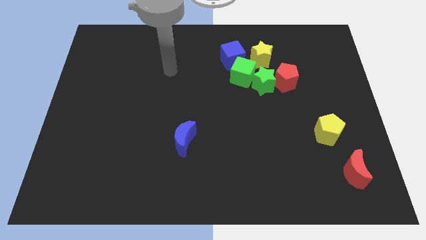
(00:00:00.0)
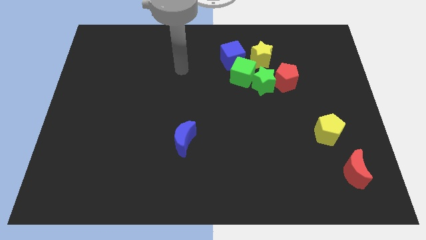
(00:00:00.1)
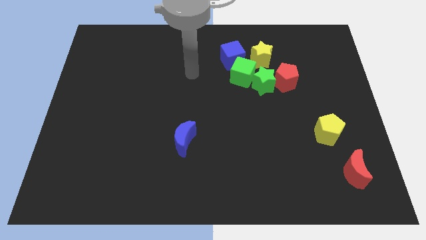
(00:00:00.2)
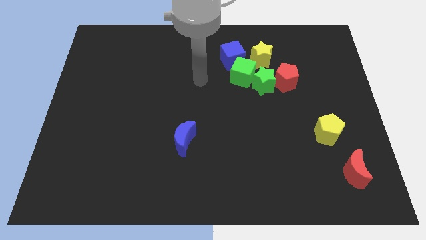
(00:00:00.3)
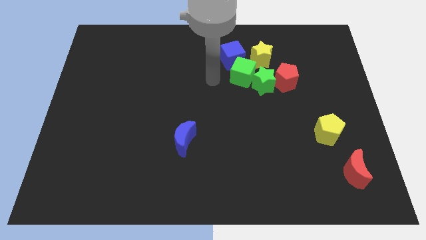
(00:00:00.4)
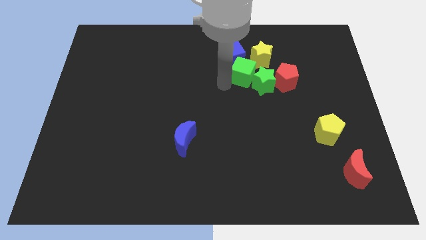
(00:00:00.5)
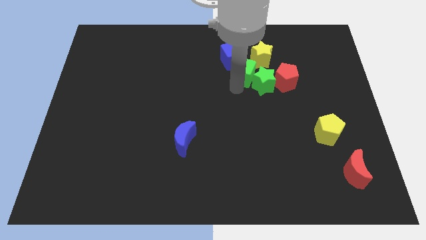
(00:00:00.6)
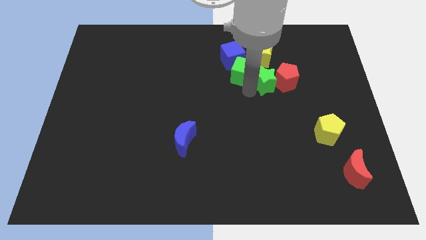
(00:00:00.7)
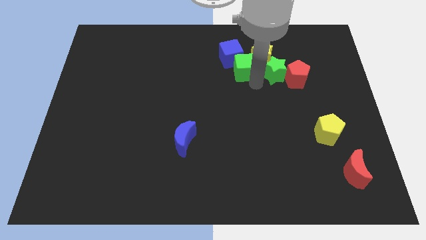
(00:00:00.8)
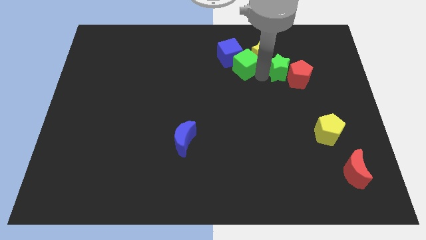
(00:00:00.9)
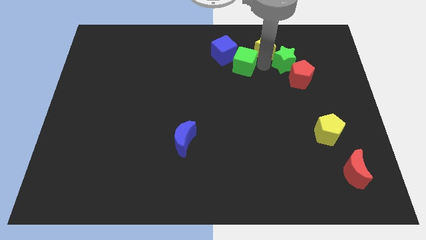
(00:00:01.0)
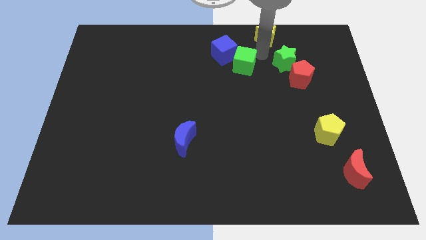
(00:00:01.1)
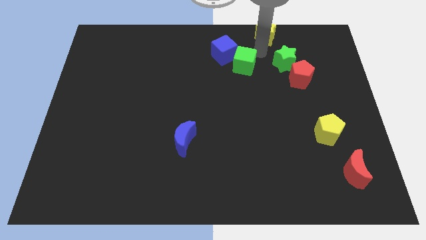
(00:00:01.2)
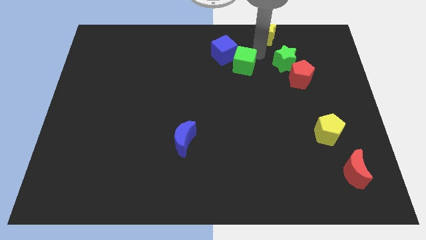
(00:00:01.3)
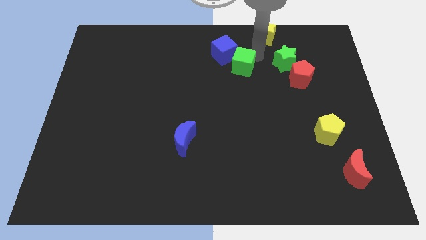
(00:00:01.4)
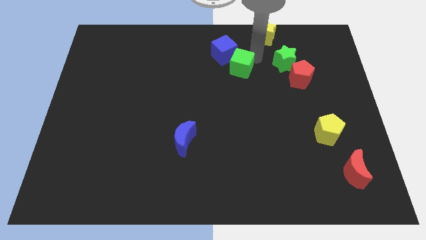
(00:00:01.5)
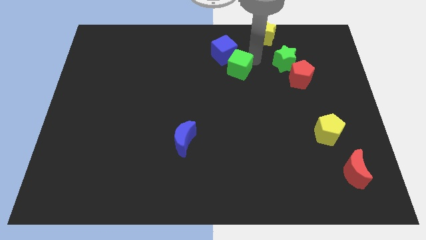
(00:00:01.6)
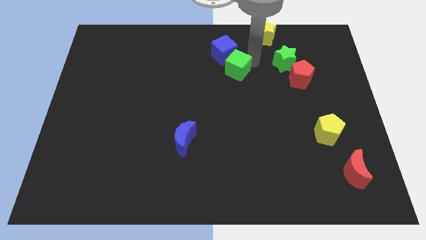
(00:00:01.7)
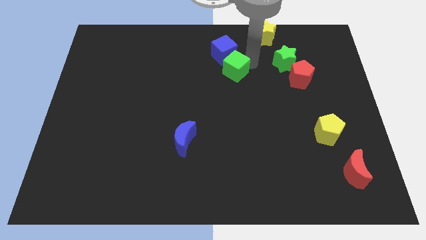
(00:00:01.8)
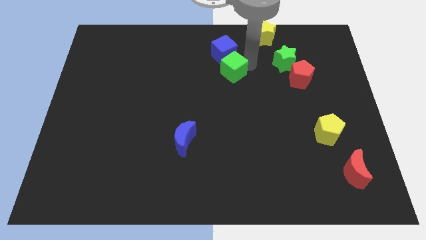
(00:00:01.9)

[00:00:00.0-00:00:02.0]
separate the green cube from the green star, blue cube, and yellow star

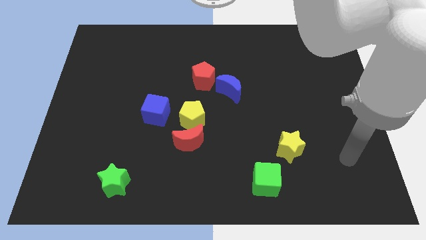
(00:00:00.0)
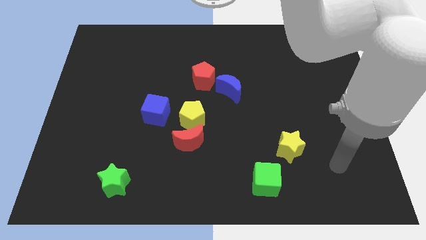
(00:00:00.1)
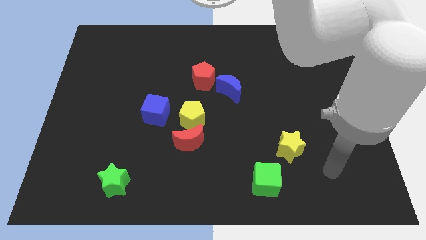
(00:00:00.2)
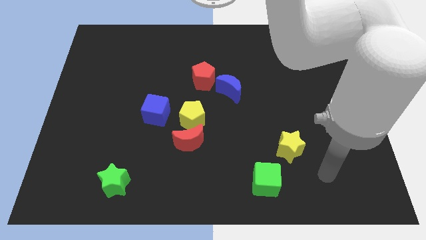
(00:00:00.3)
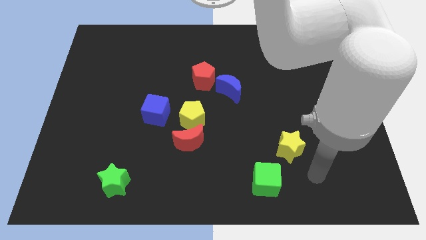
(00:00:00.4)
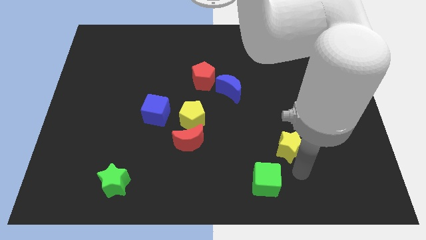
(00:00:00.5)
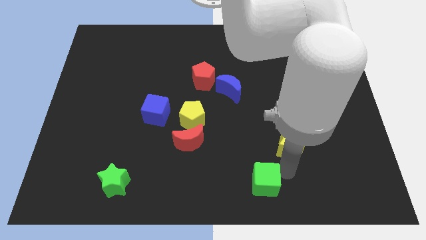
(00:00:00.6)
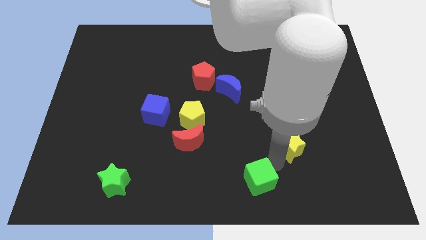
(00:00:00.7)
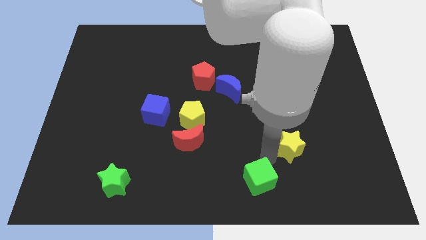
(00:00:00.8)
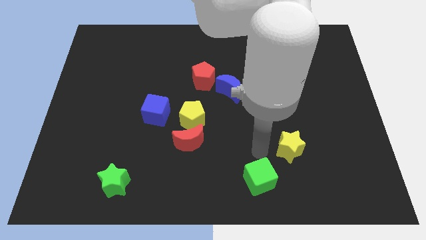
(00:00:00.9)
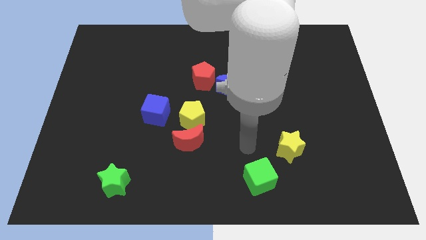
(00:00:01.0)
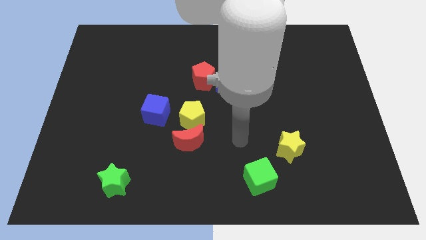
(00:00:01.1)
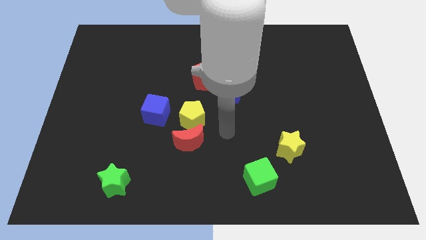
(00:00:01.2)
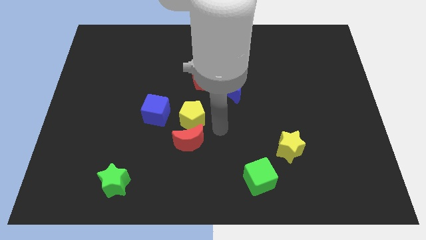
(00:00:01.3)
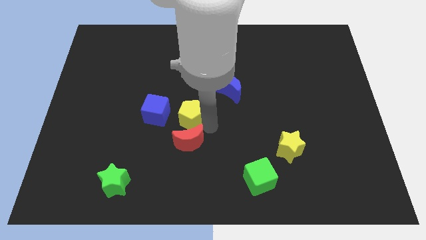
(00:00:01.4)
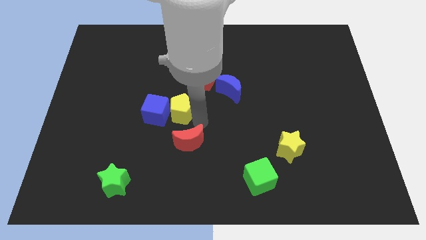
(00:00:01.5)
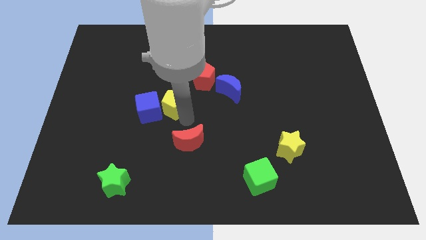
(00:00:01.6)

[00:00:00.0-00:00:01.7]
move the red moon away from the yellow pentagon

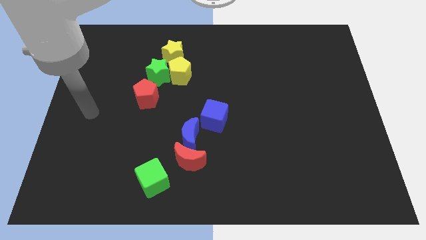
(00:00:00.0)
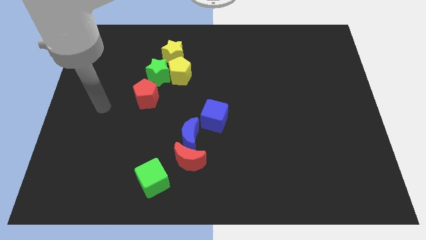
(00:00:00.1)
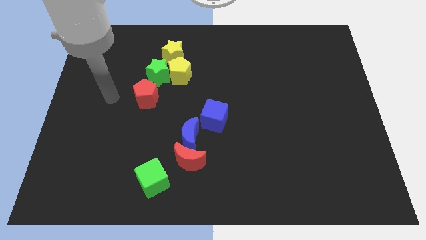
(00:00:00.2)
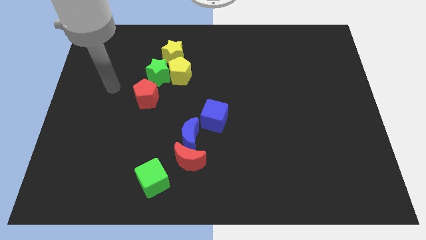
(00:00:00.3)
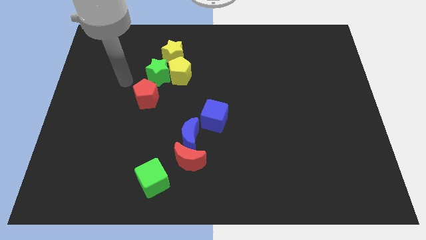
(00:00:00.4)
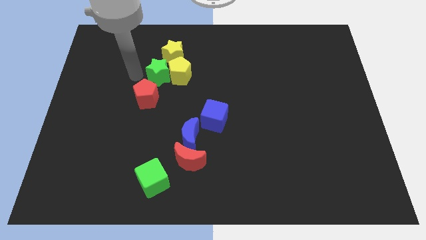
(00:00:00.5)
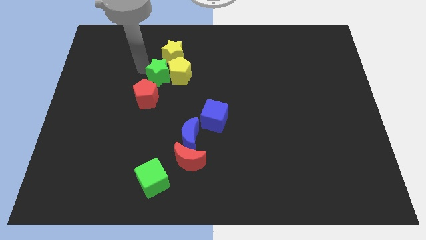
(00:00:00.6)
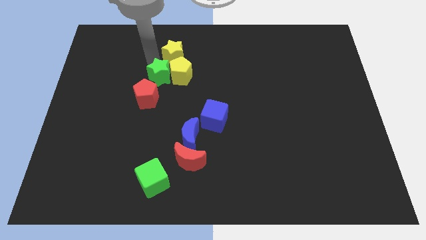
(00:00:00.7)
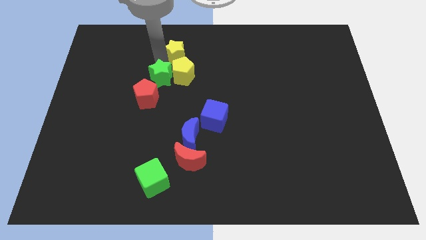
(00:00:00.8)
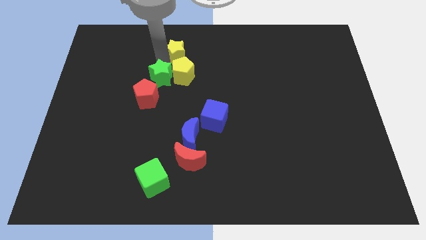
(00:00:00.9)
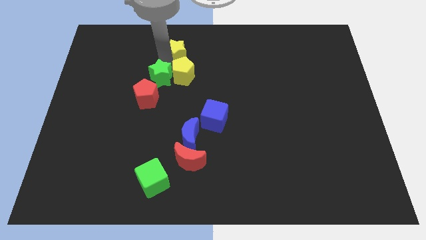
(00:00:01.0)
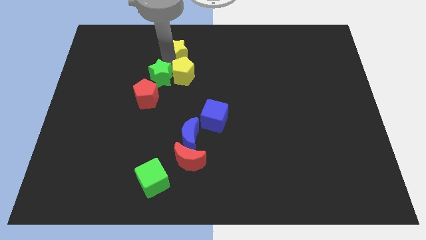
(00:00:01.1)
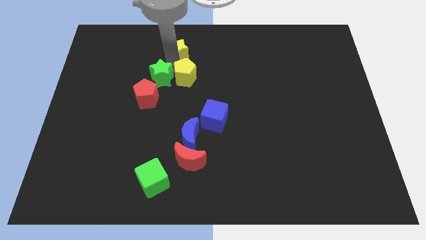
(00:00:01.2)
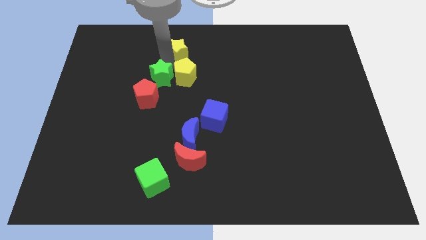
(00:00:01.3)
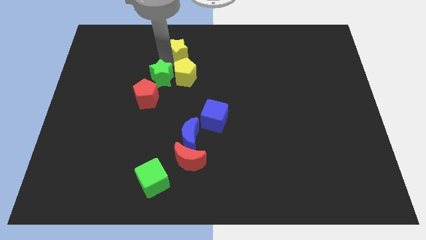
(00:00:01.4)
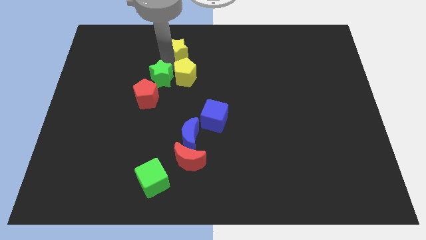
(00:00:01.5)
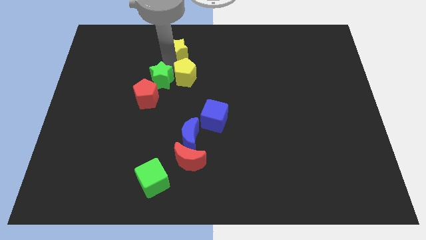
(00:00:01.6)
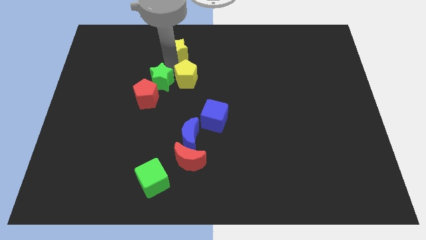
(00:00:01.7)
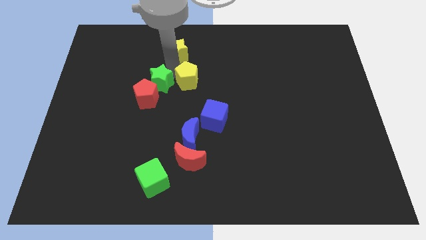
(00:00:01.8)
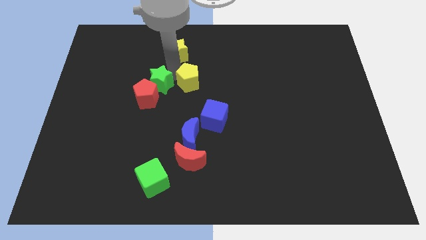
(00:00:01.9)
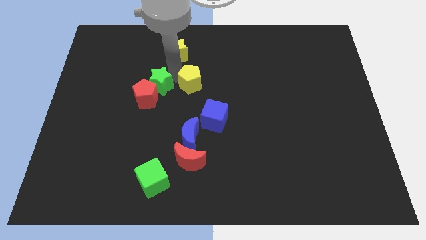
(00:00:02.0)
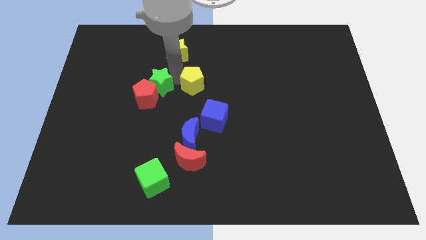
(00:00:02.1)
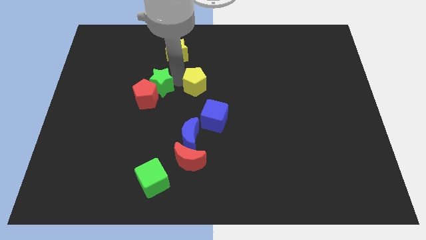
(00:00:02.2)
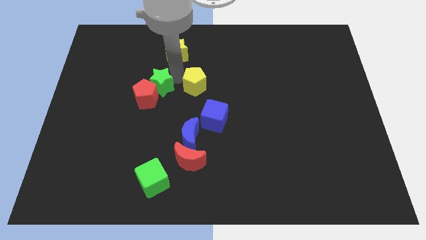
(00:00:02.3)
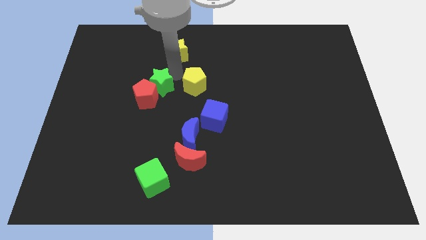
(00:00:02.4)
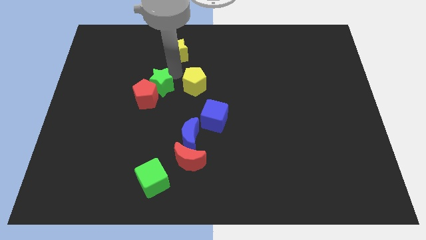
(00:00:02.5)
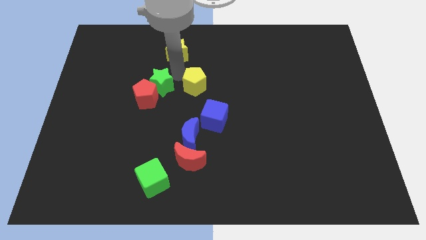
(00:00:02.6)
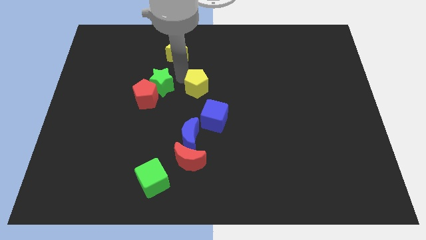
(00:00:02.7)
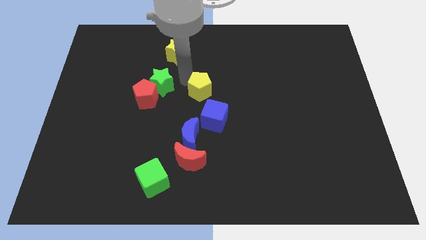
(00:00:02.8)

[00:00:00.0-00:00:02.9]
pull the yellow pentagon apart from the green star and yellow star

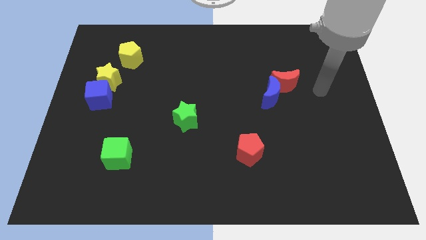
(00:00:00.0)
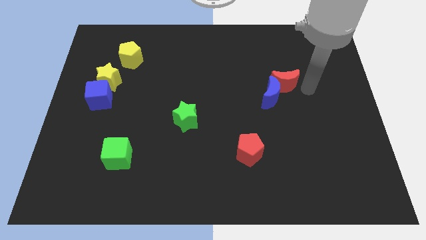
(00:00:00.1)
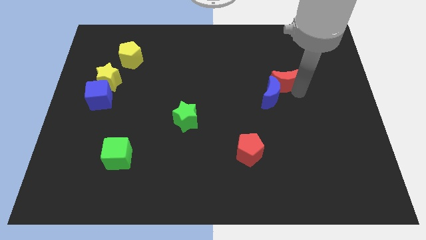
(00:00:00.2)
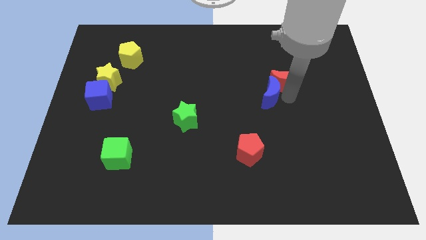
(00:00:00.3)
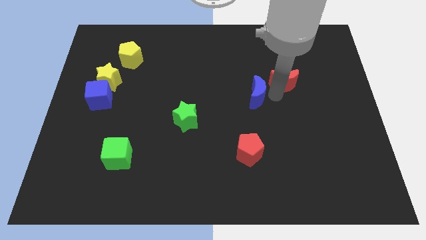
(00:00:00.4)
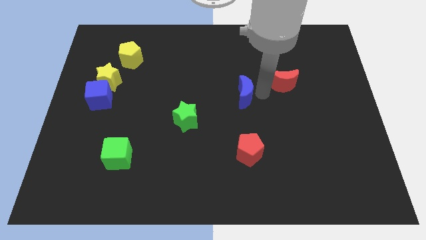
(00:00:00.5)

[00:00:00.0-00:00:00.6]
move the red moon away from the blue moon

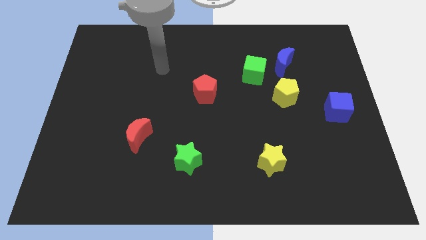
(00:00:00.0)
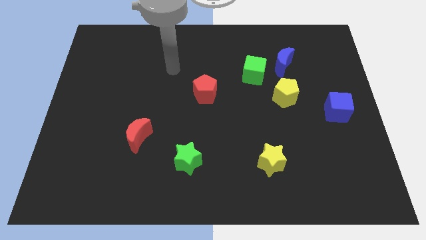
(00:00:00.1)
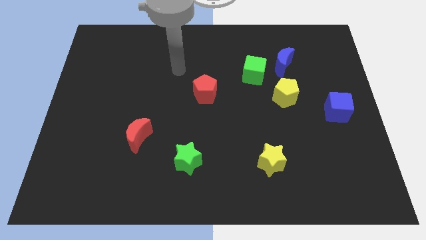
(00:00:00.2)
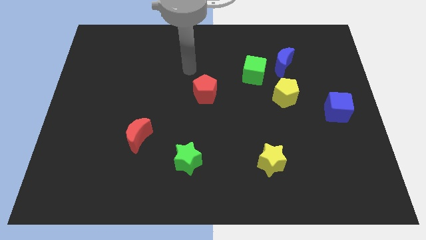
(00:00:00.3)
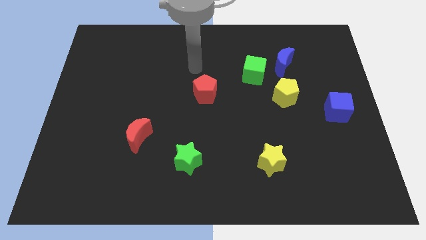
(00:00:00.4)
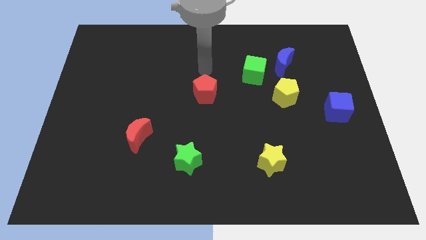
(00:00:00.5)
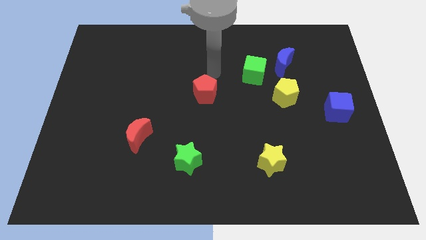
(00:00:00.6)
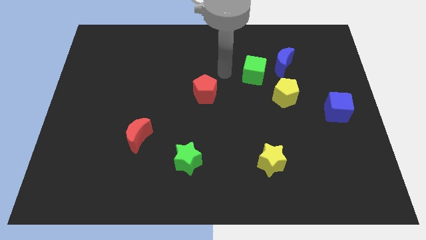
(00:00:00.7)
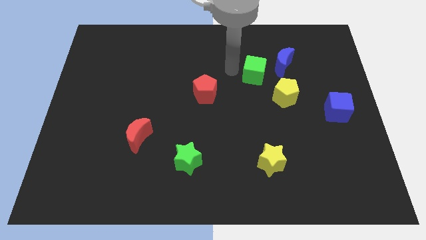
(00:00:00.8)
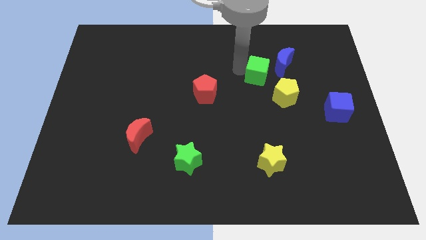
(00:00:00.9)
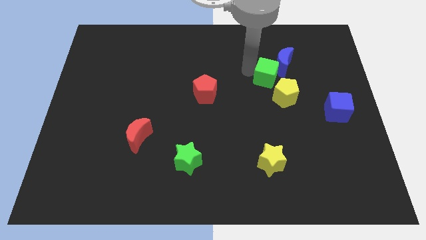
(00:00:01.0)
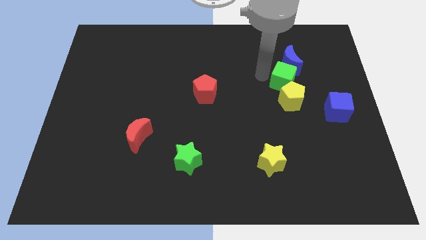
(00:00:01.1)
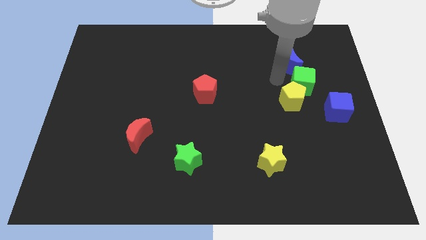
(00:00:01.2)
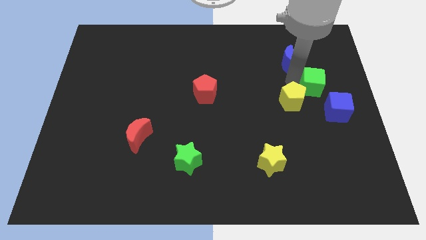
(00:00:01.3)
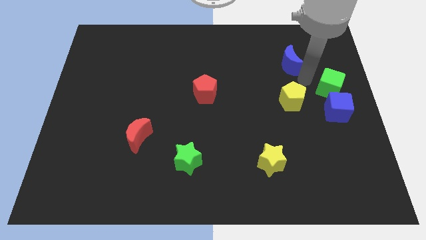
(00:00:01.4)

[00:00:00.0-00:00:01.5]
separate the blue moon from the green cube

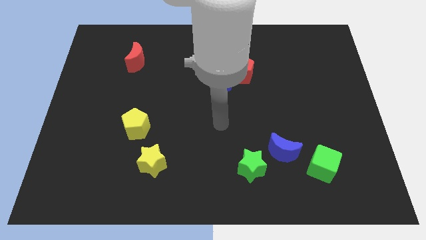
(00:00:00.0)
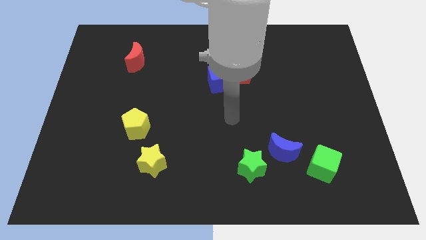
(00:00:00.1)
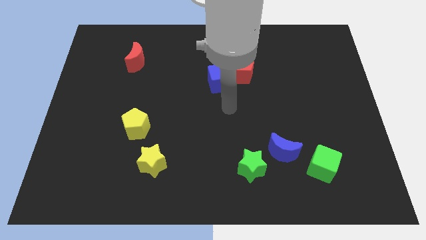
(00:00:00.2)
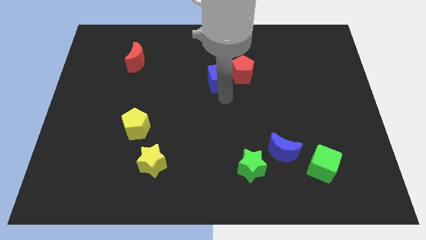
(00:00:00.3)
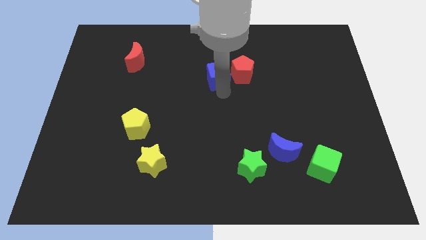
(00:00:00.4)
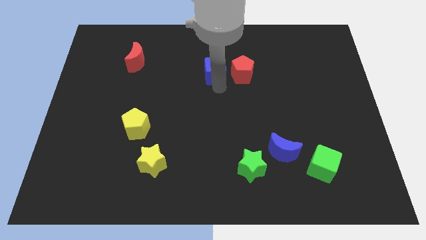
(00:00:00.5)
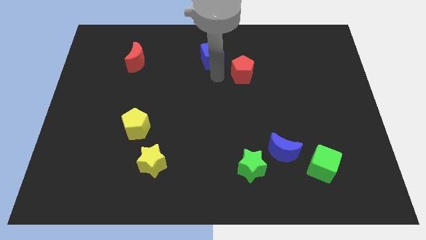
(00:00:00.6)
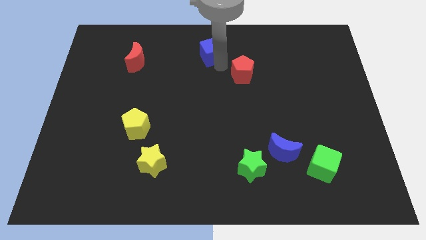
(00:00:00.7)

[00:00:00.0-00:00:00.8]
separate the red pentagon from the blue cube
